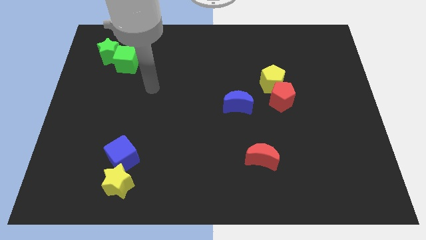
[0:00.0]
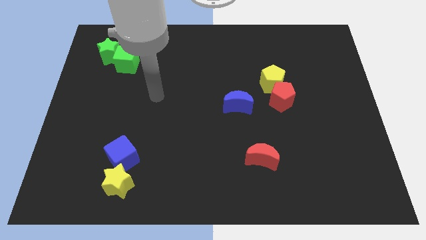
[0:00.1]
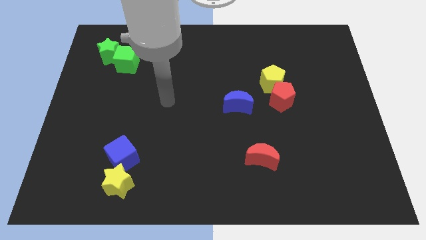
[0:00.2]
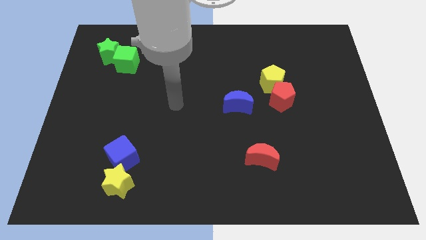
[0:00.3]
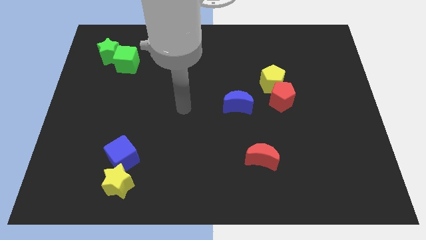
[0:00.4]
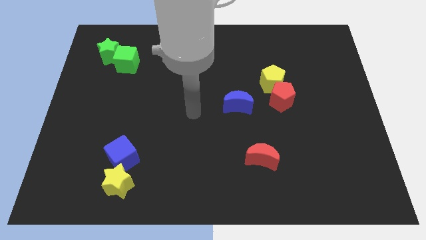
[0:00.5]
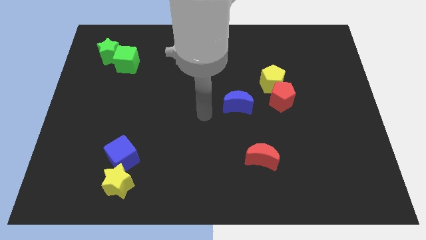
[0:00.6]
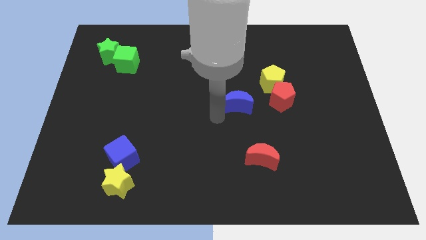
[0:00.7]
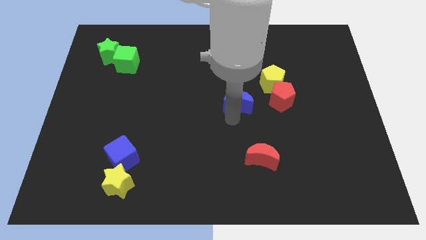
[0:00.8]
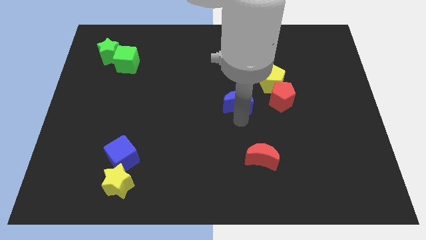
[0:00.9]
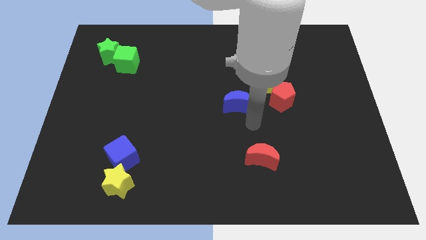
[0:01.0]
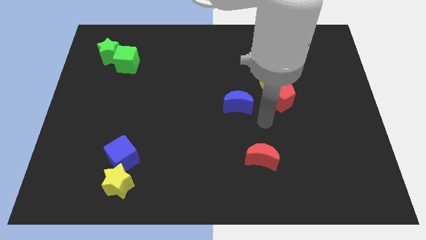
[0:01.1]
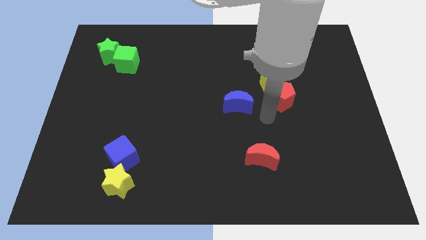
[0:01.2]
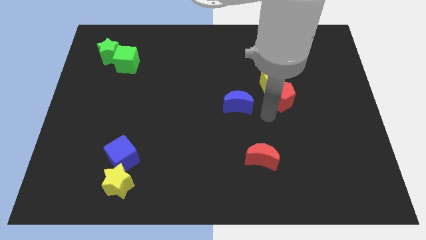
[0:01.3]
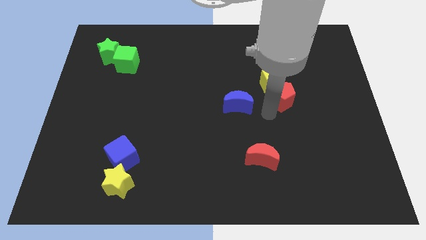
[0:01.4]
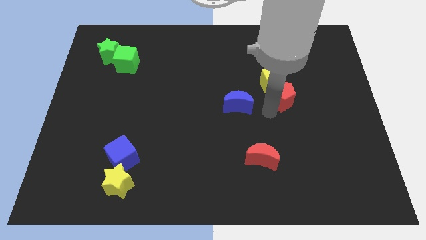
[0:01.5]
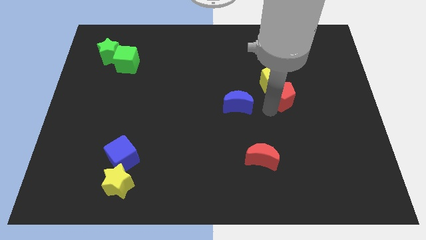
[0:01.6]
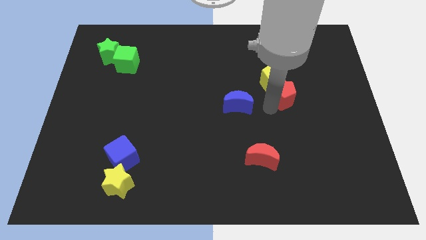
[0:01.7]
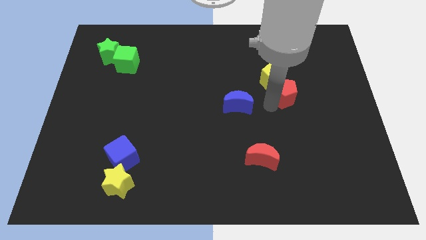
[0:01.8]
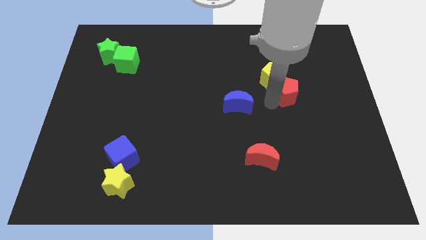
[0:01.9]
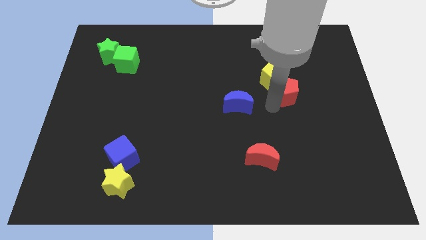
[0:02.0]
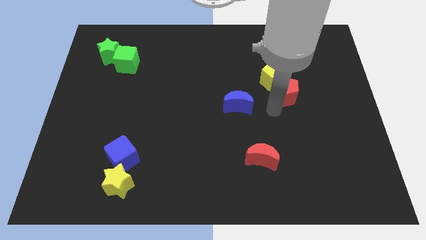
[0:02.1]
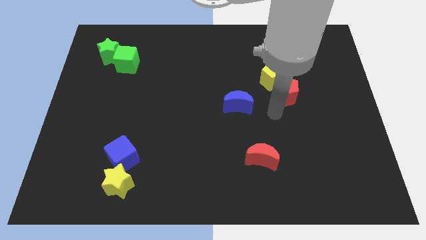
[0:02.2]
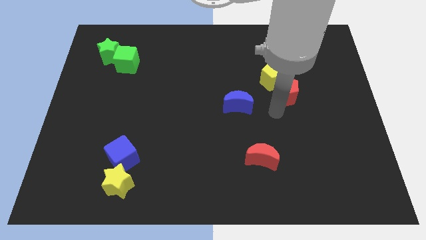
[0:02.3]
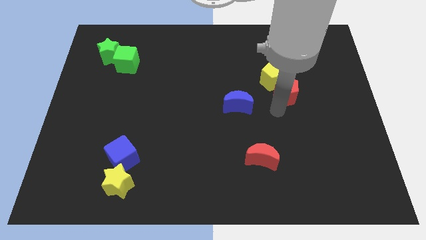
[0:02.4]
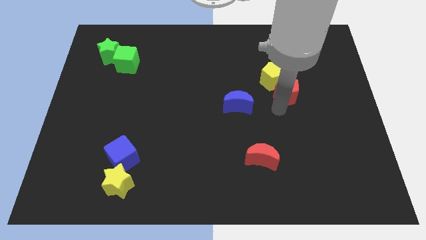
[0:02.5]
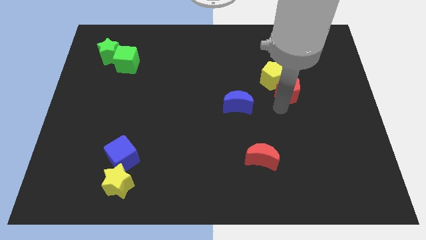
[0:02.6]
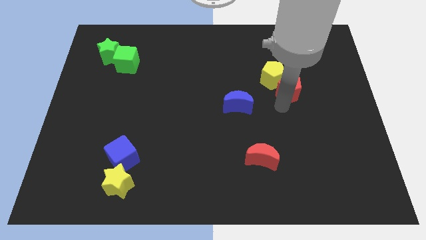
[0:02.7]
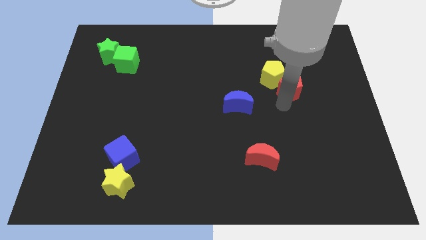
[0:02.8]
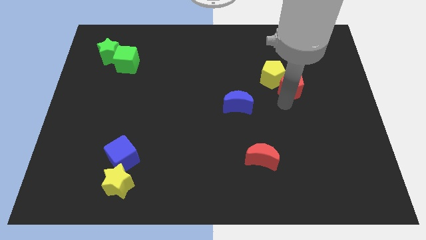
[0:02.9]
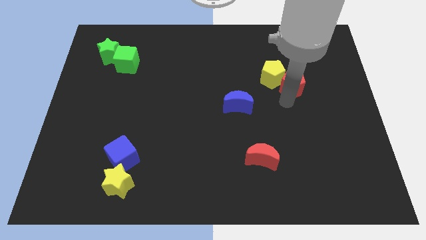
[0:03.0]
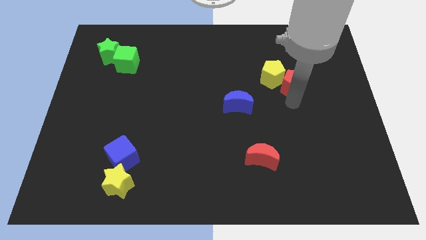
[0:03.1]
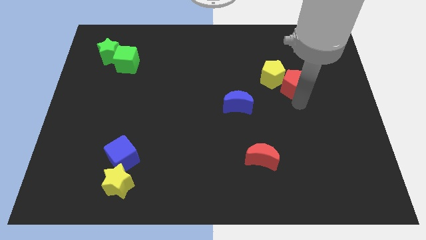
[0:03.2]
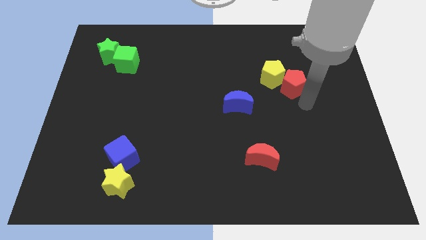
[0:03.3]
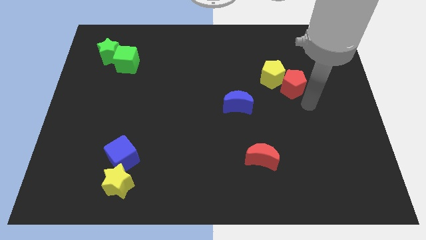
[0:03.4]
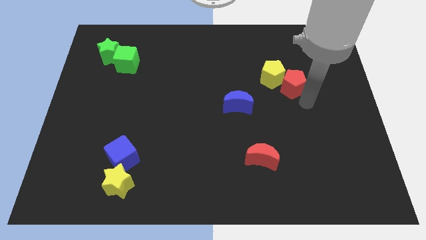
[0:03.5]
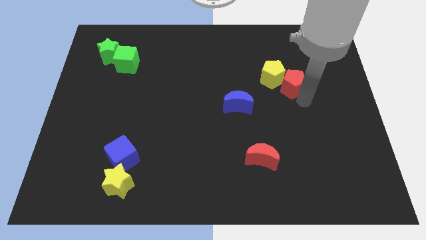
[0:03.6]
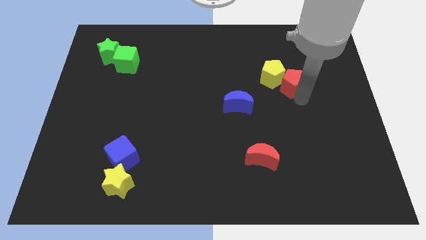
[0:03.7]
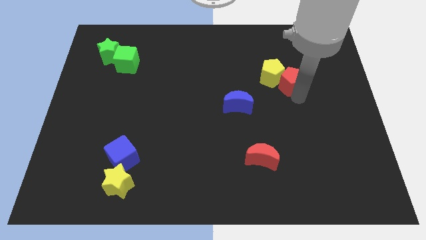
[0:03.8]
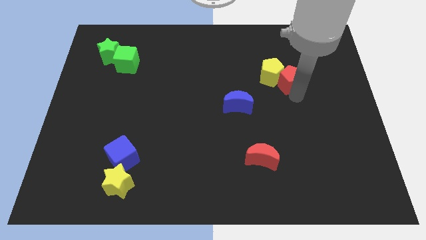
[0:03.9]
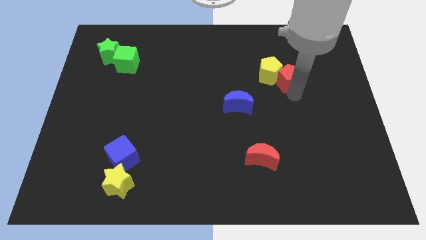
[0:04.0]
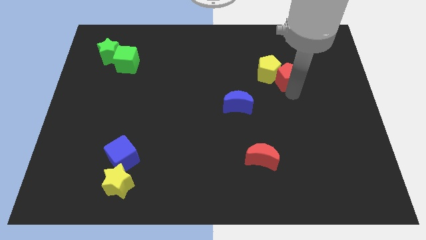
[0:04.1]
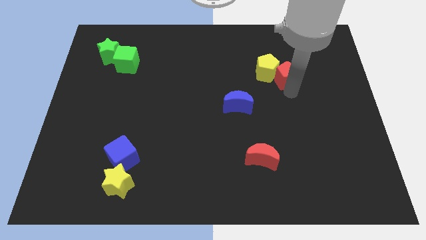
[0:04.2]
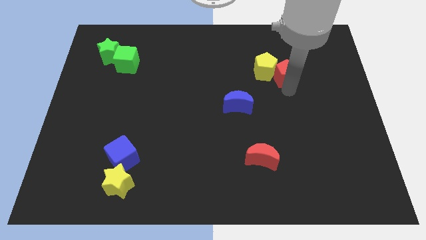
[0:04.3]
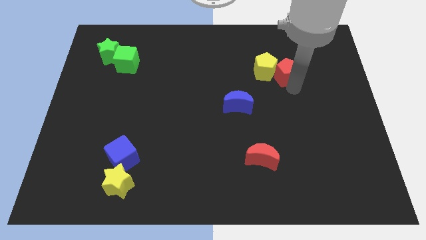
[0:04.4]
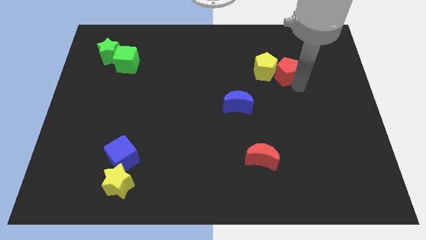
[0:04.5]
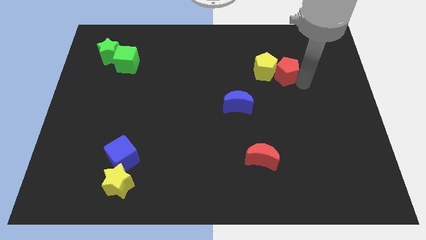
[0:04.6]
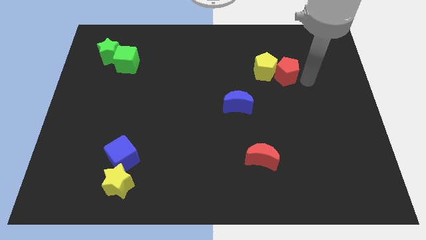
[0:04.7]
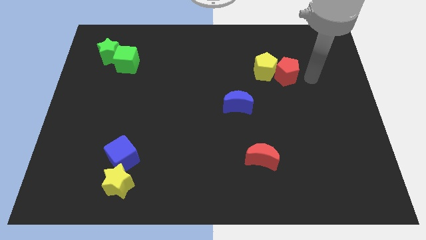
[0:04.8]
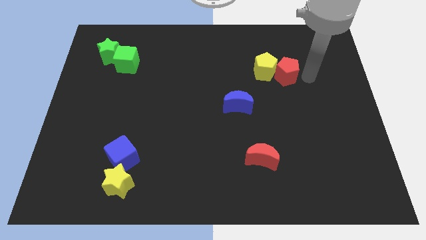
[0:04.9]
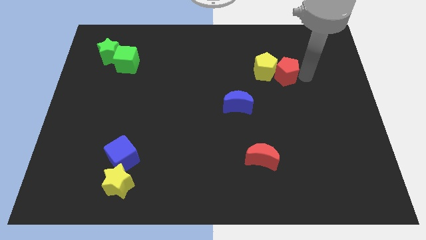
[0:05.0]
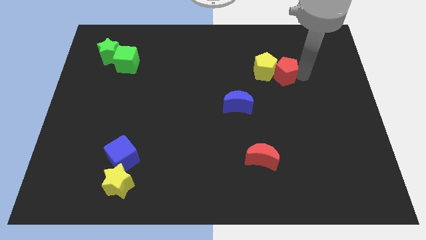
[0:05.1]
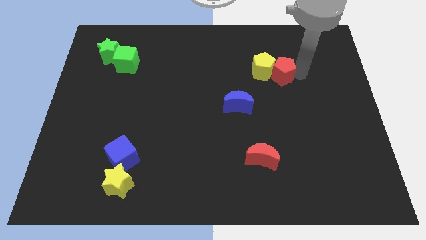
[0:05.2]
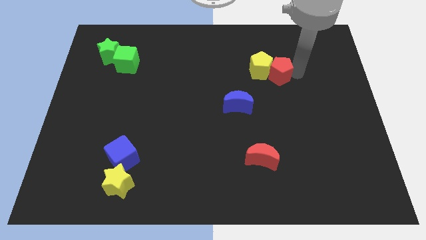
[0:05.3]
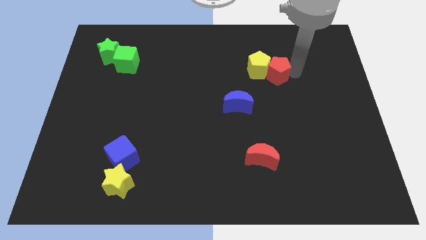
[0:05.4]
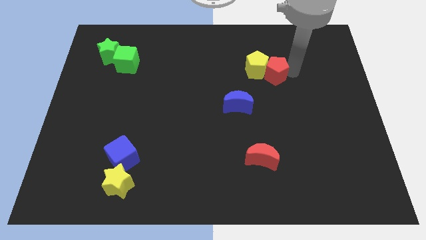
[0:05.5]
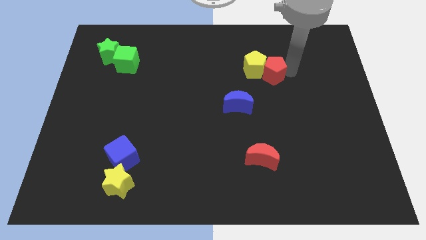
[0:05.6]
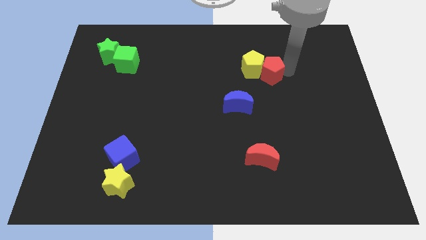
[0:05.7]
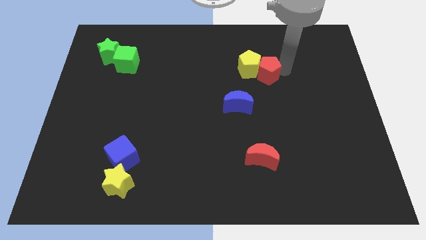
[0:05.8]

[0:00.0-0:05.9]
slightly move the red pentagon upwards and to the left

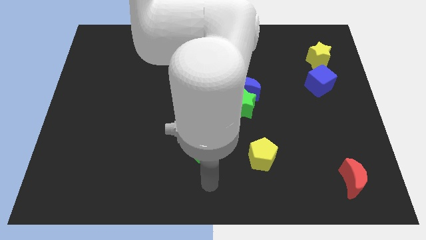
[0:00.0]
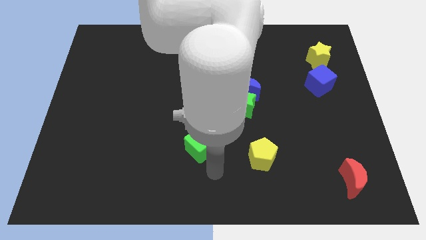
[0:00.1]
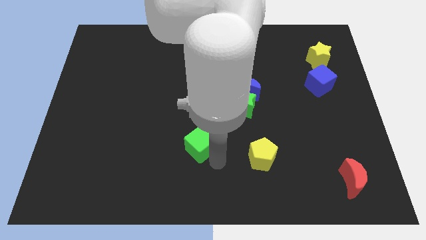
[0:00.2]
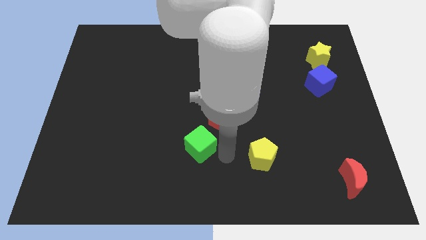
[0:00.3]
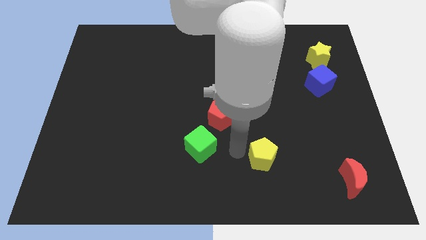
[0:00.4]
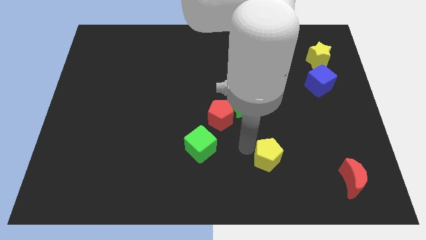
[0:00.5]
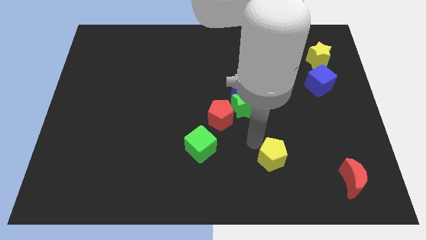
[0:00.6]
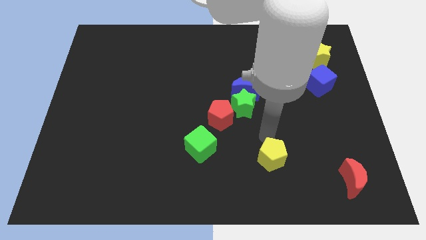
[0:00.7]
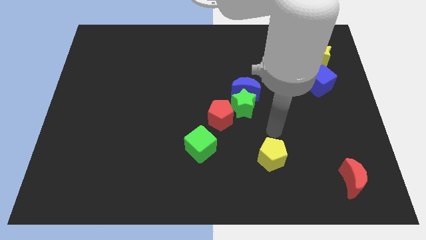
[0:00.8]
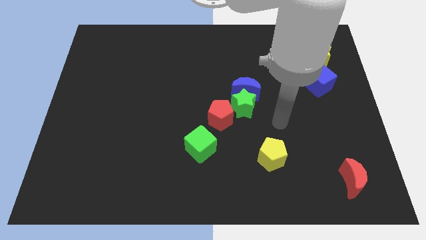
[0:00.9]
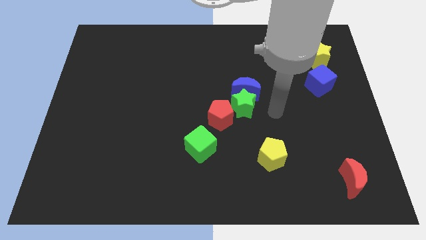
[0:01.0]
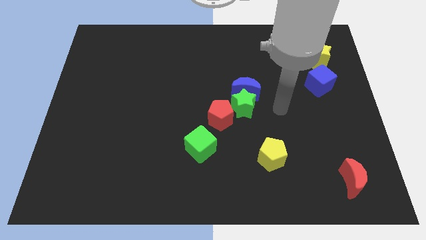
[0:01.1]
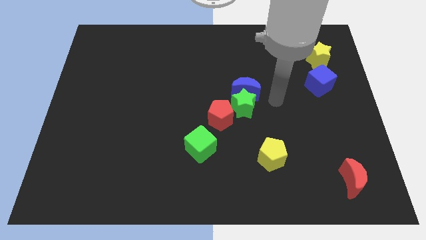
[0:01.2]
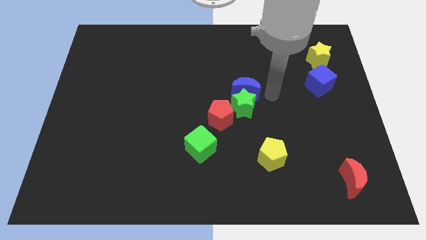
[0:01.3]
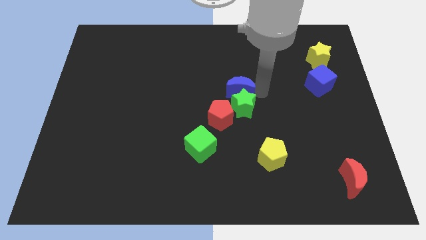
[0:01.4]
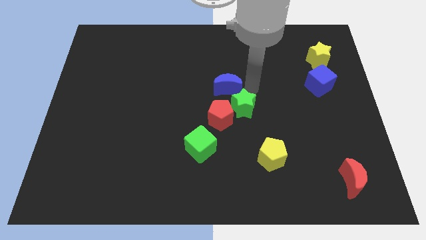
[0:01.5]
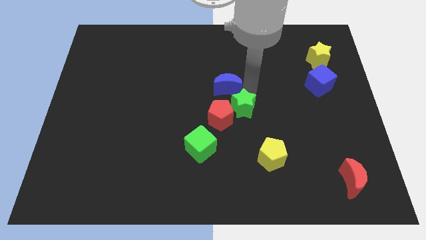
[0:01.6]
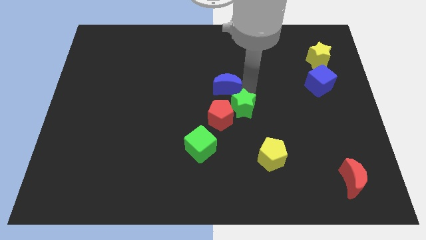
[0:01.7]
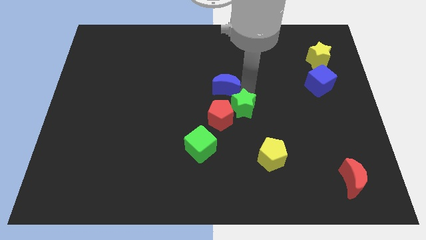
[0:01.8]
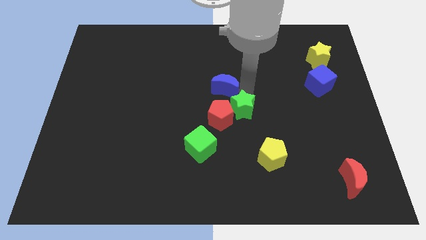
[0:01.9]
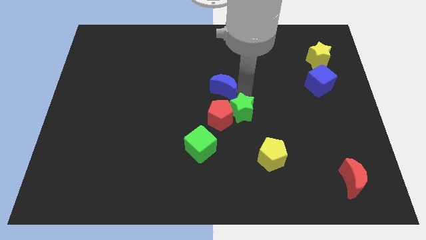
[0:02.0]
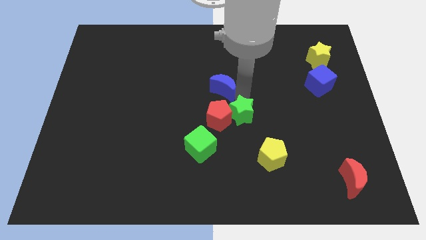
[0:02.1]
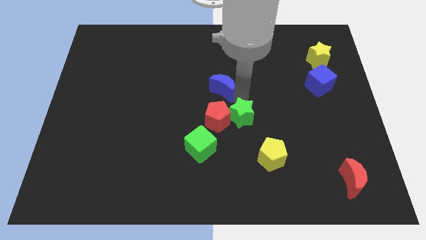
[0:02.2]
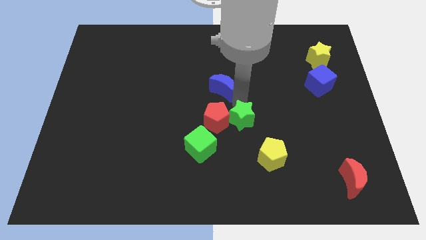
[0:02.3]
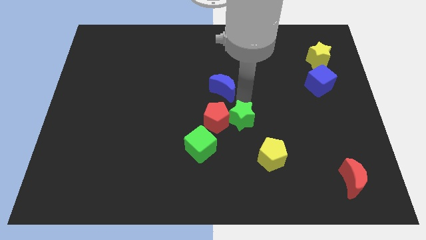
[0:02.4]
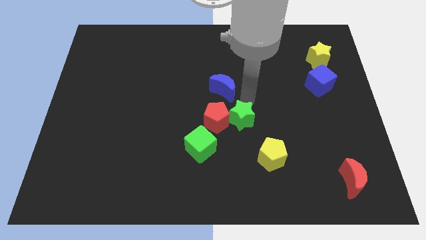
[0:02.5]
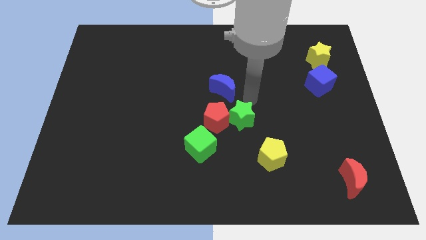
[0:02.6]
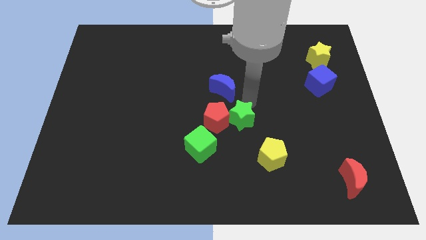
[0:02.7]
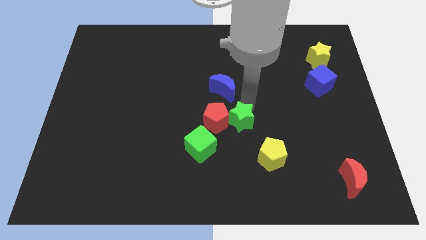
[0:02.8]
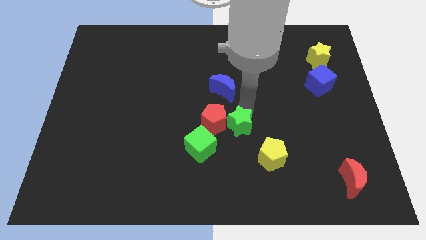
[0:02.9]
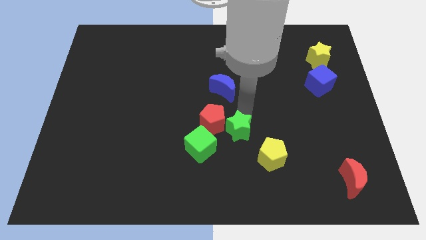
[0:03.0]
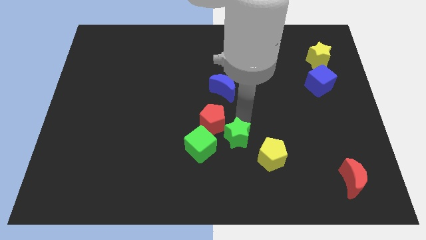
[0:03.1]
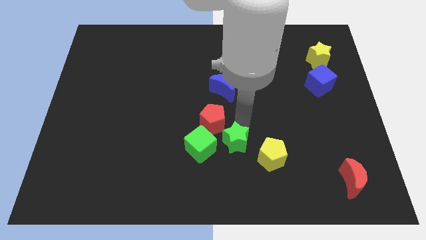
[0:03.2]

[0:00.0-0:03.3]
slightly push the green star down and then left
